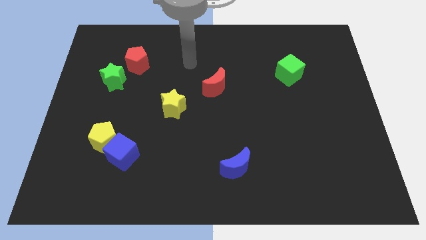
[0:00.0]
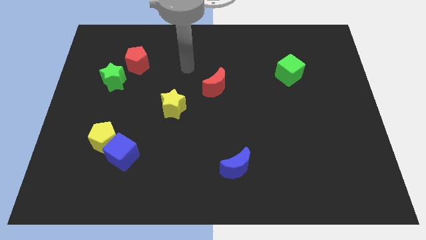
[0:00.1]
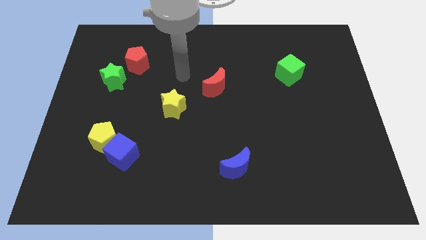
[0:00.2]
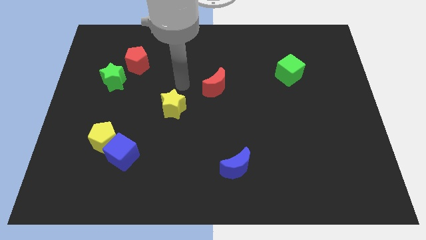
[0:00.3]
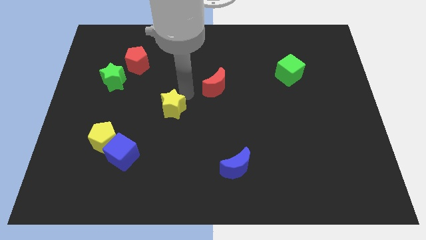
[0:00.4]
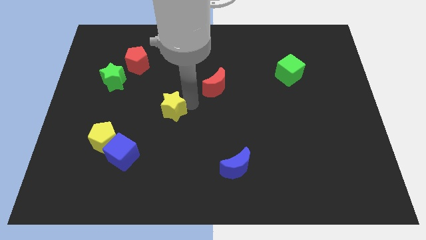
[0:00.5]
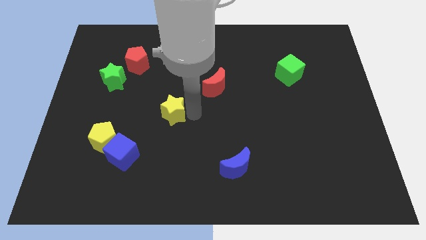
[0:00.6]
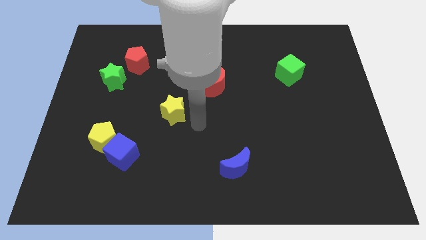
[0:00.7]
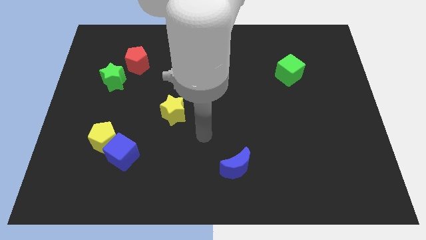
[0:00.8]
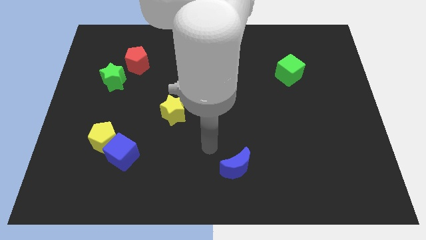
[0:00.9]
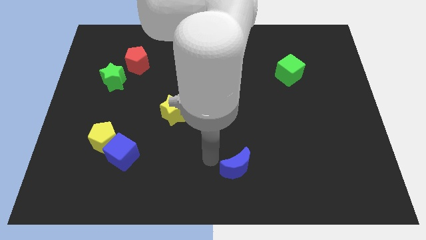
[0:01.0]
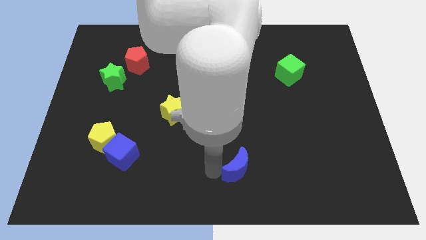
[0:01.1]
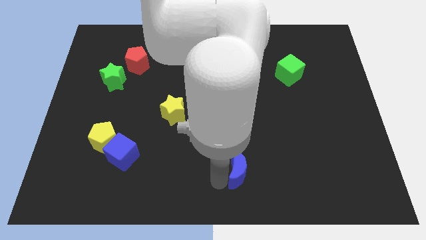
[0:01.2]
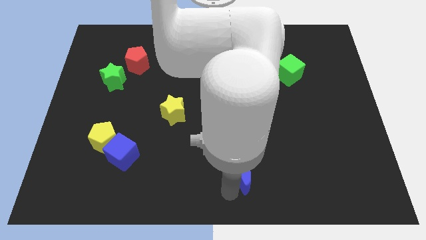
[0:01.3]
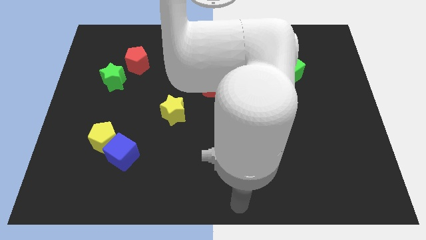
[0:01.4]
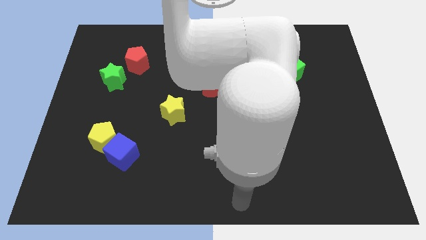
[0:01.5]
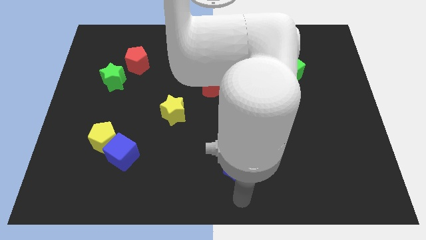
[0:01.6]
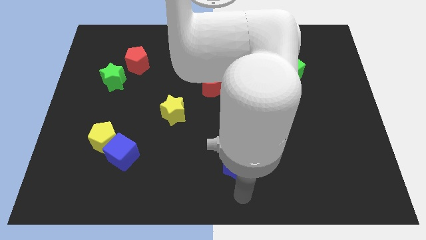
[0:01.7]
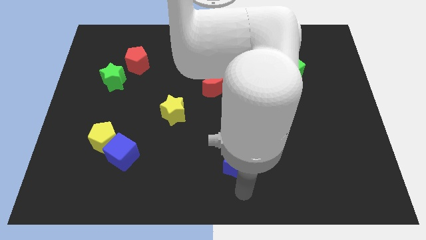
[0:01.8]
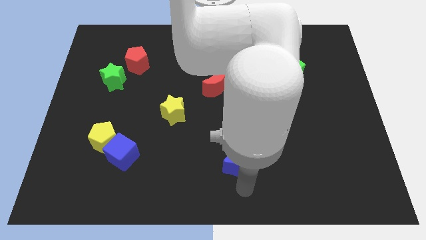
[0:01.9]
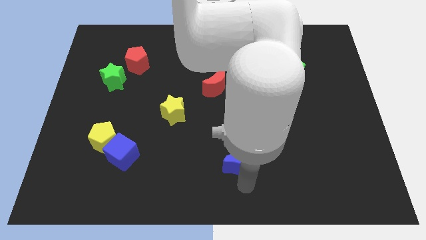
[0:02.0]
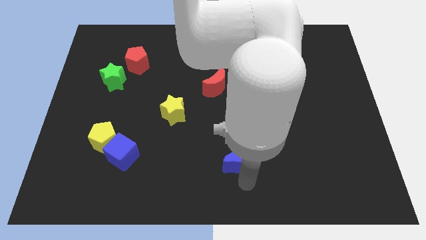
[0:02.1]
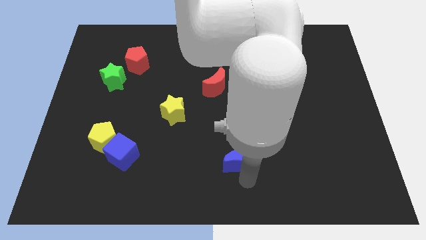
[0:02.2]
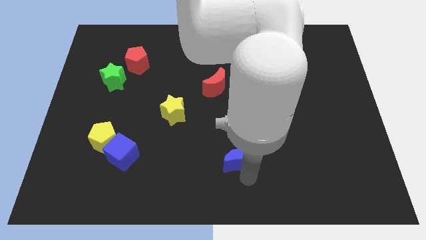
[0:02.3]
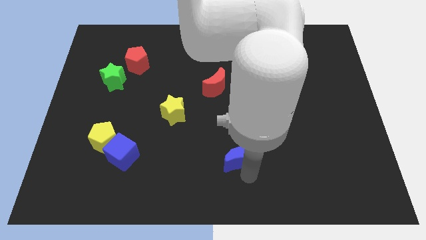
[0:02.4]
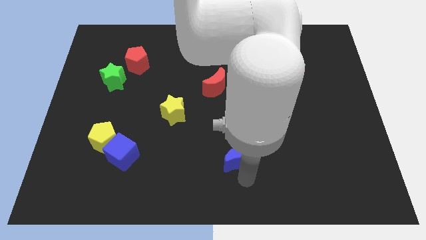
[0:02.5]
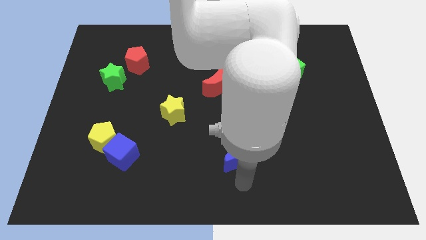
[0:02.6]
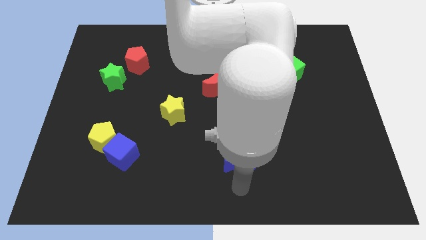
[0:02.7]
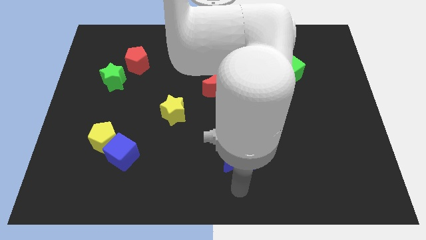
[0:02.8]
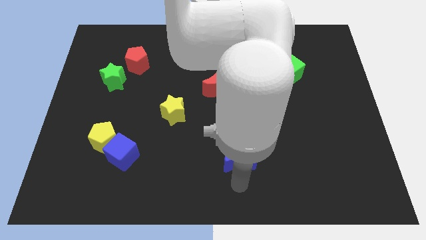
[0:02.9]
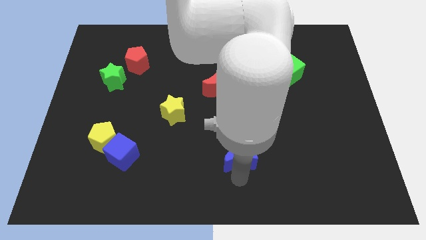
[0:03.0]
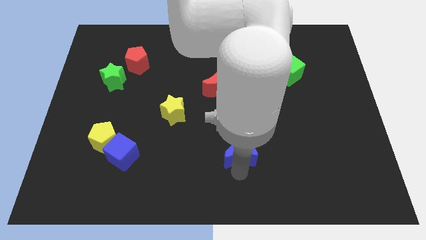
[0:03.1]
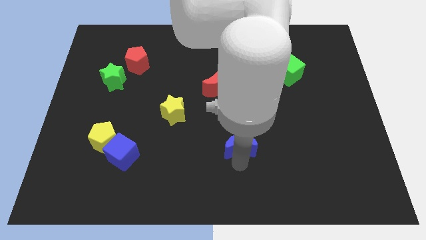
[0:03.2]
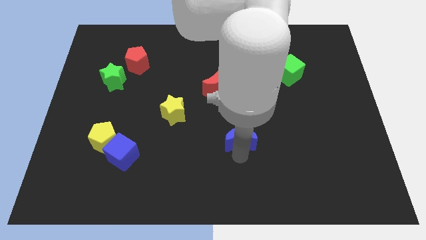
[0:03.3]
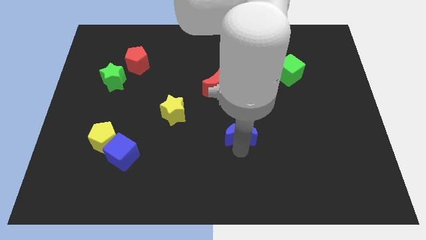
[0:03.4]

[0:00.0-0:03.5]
slide the blue moon a little upwards

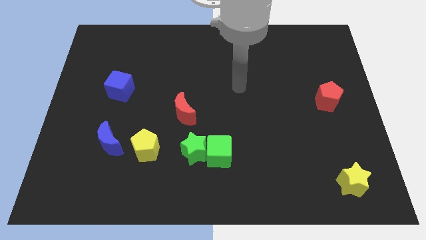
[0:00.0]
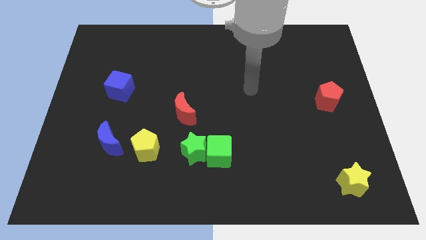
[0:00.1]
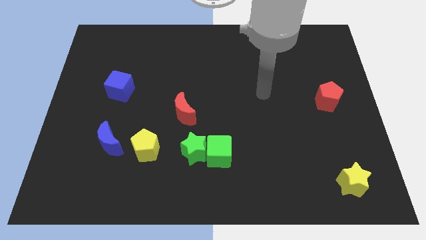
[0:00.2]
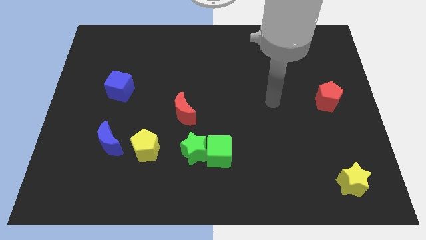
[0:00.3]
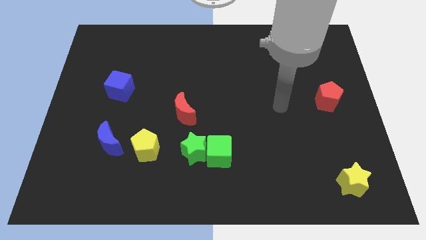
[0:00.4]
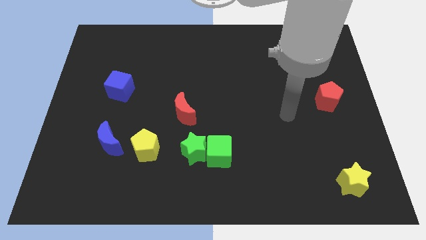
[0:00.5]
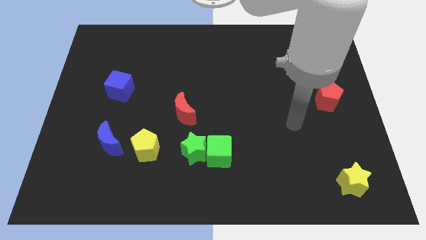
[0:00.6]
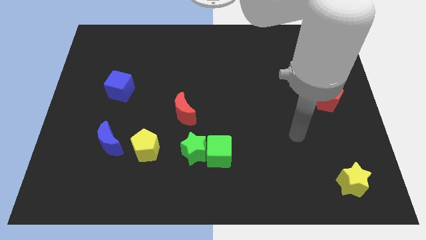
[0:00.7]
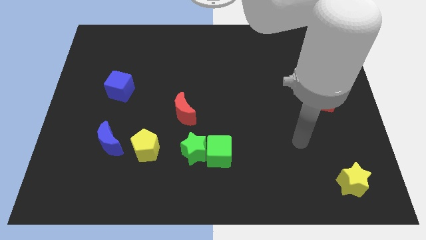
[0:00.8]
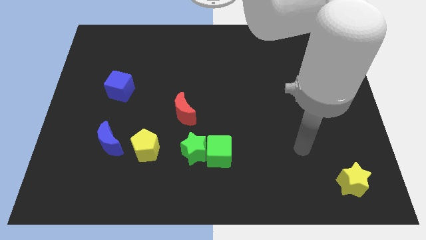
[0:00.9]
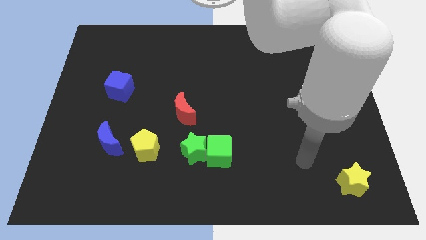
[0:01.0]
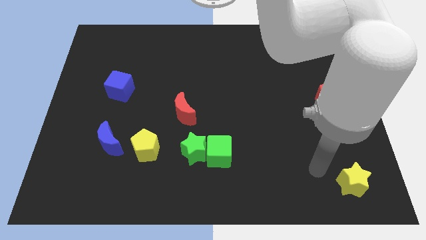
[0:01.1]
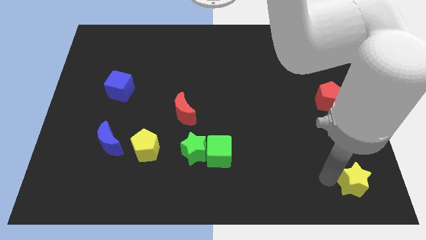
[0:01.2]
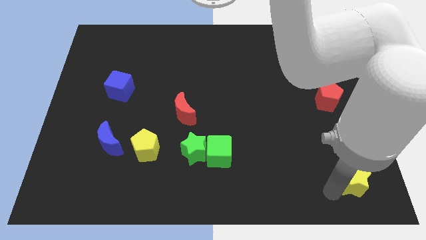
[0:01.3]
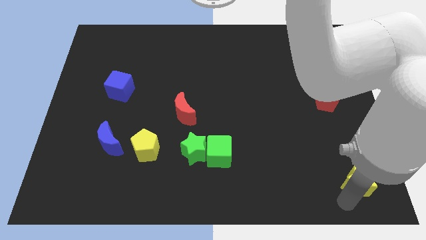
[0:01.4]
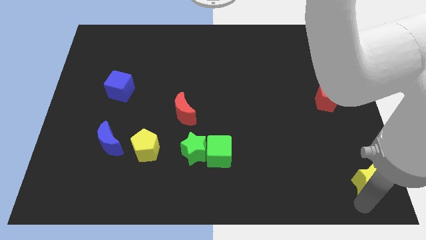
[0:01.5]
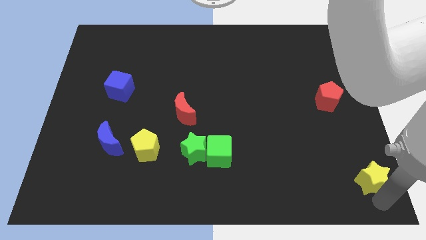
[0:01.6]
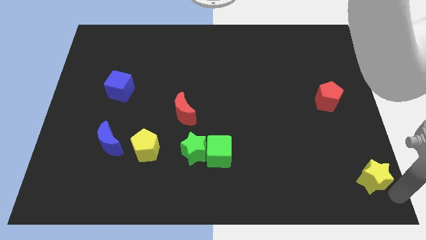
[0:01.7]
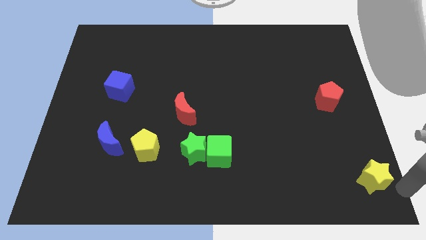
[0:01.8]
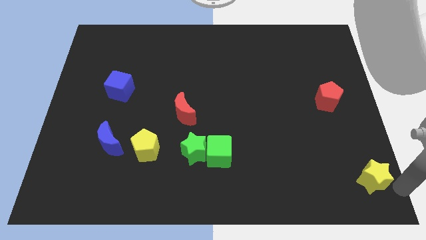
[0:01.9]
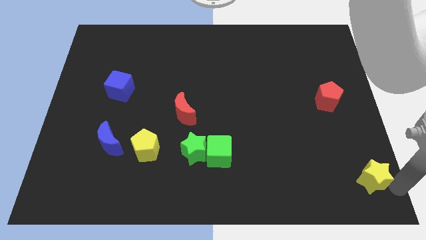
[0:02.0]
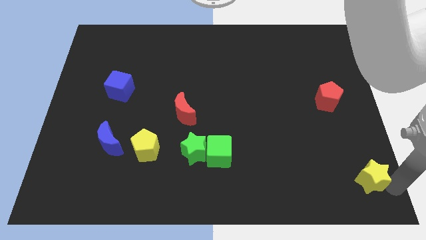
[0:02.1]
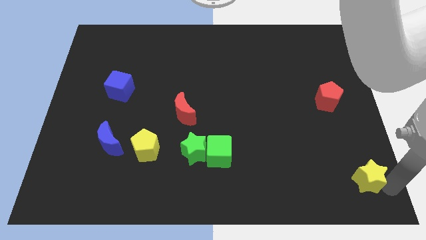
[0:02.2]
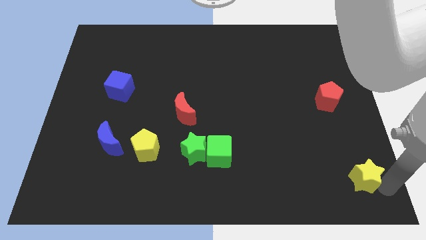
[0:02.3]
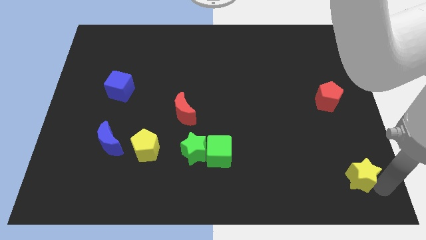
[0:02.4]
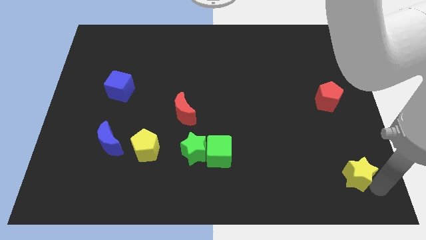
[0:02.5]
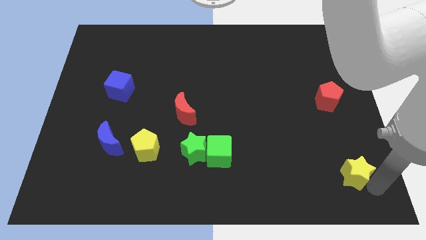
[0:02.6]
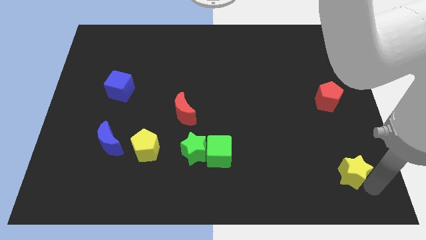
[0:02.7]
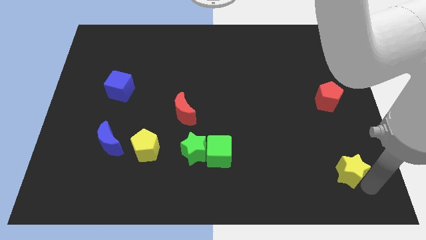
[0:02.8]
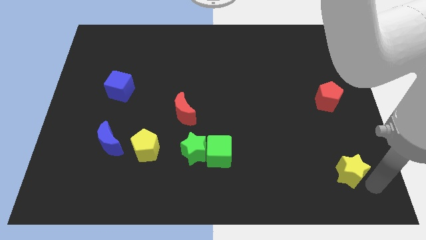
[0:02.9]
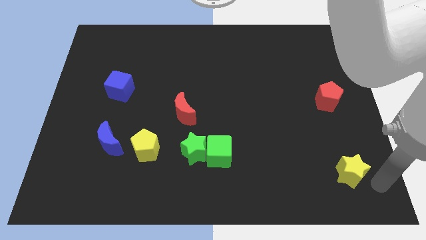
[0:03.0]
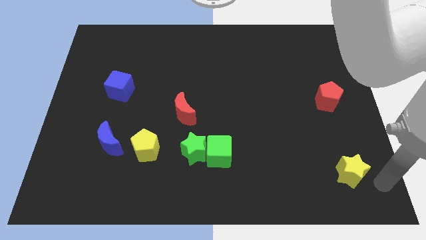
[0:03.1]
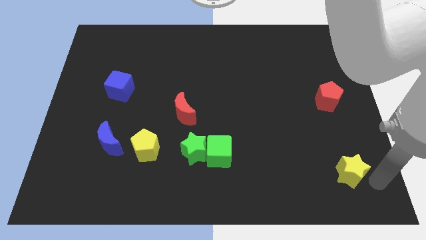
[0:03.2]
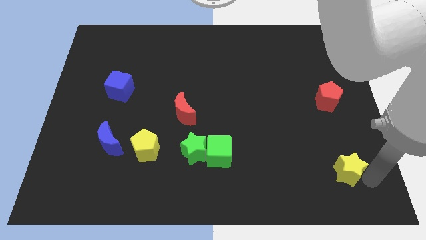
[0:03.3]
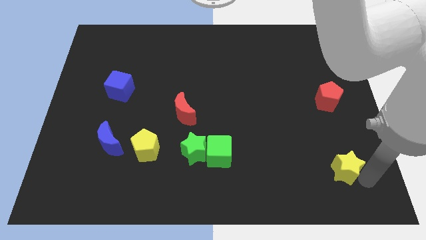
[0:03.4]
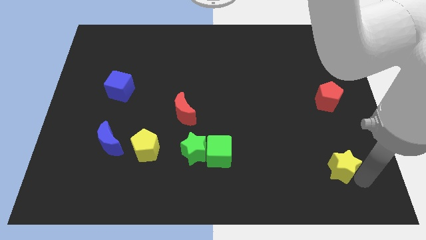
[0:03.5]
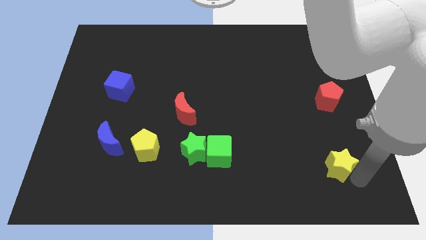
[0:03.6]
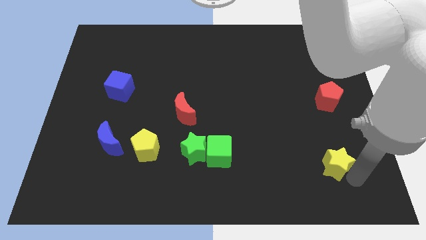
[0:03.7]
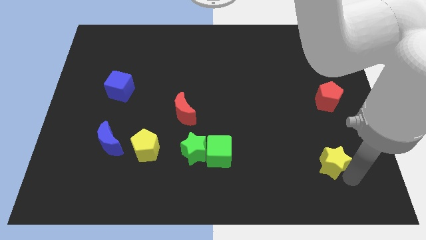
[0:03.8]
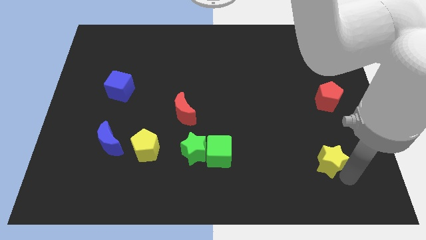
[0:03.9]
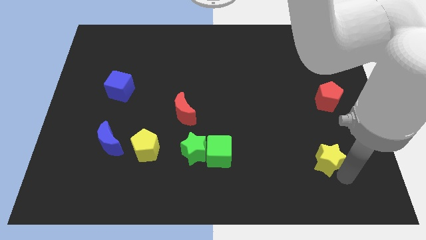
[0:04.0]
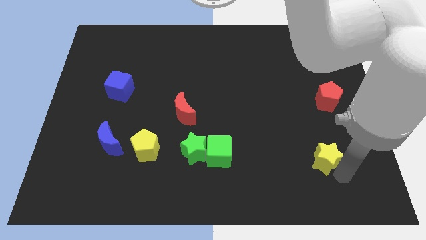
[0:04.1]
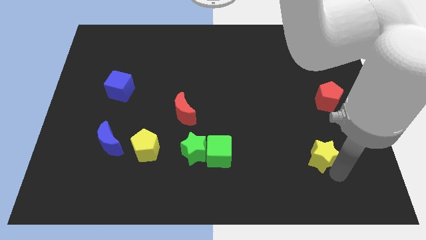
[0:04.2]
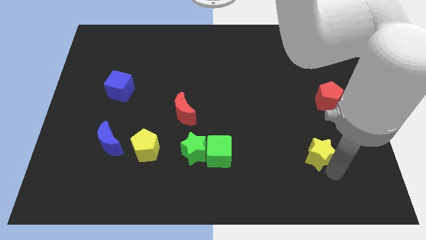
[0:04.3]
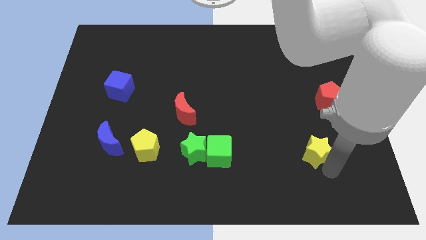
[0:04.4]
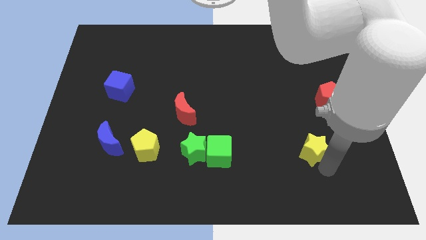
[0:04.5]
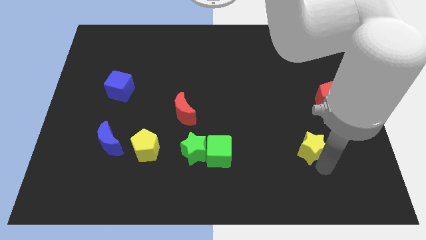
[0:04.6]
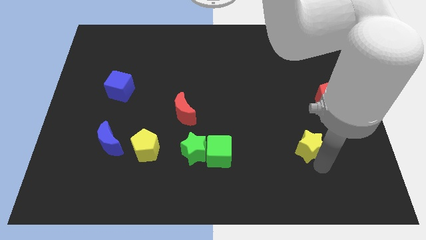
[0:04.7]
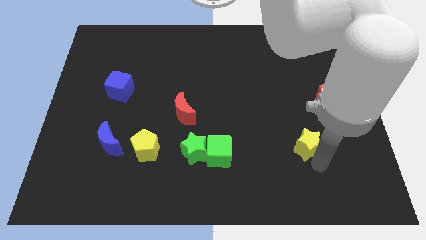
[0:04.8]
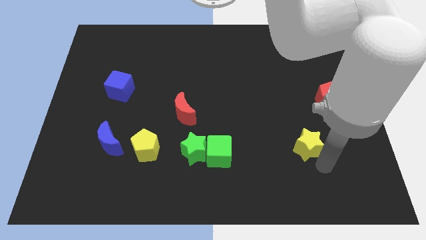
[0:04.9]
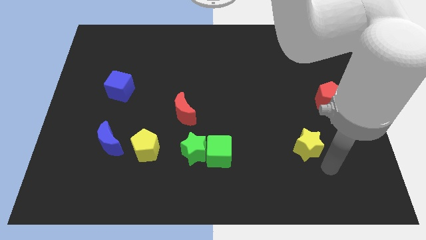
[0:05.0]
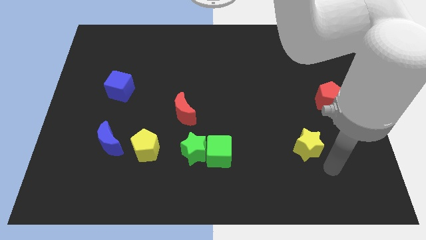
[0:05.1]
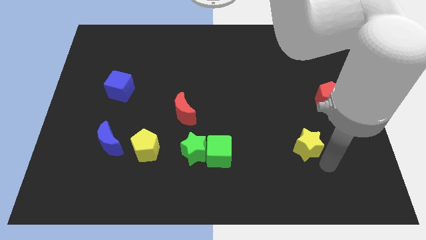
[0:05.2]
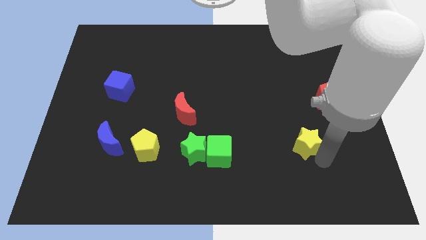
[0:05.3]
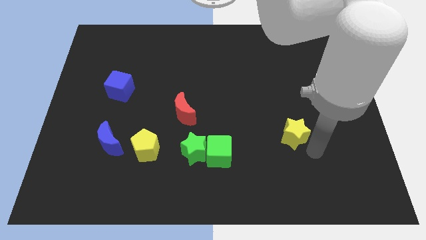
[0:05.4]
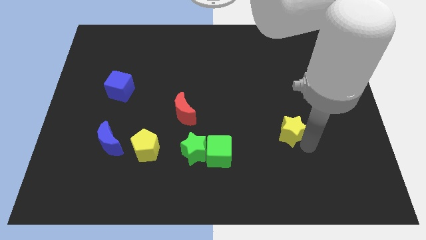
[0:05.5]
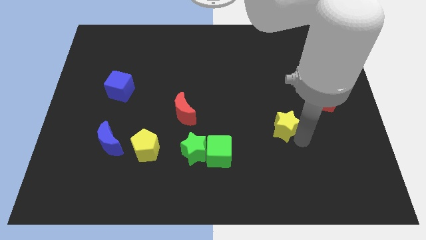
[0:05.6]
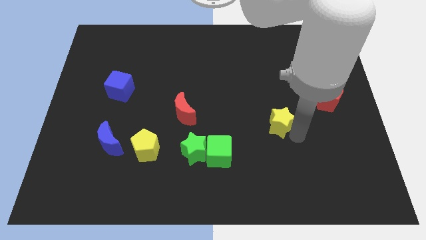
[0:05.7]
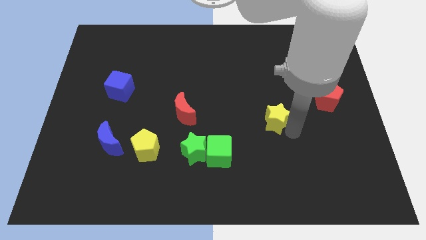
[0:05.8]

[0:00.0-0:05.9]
push the yellow star up and left
